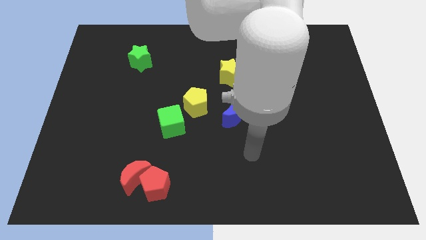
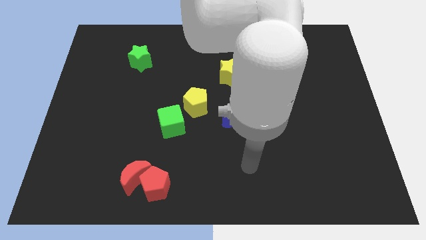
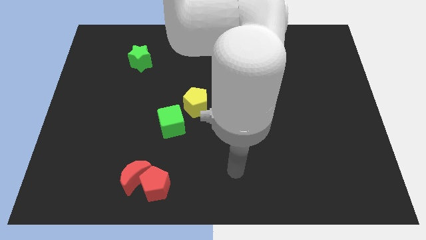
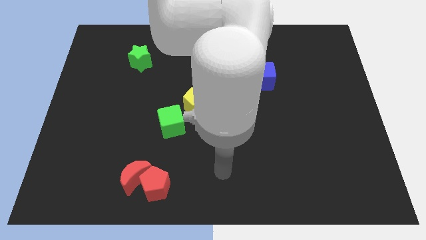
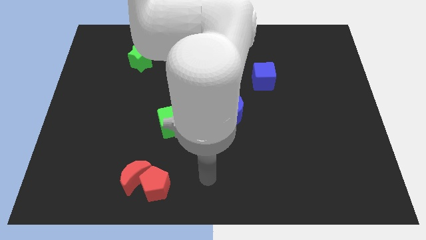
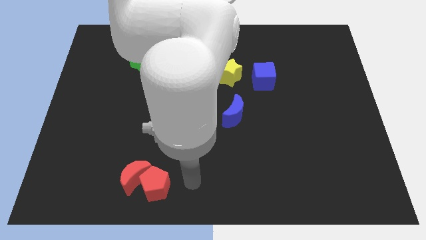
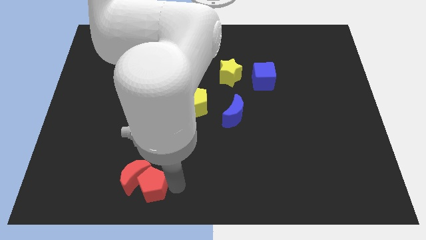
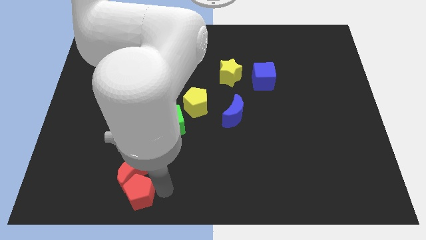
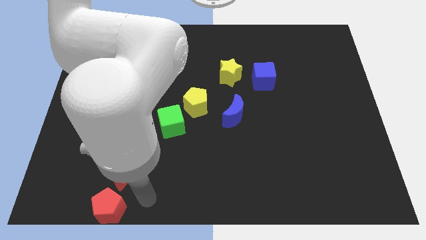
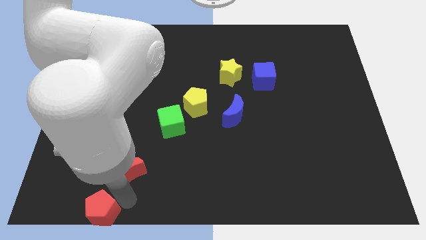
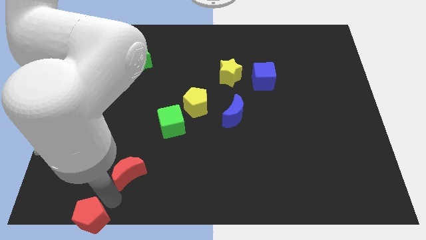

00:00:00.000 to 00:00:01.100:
pull the red moon apart from the red pentagon

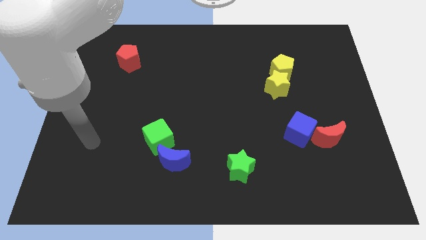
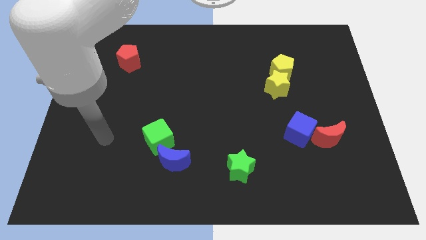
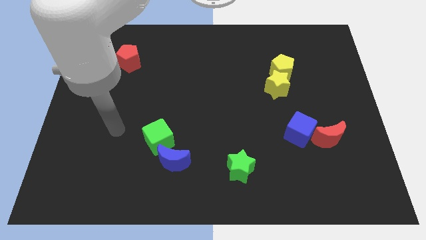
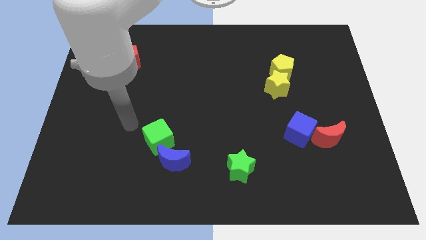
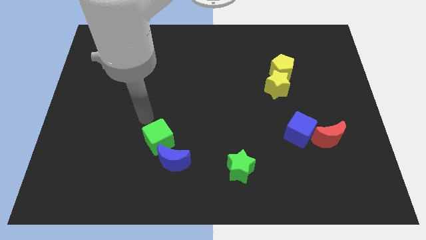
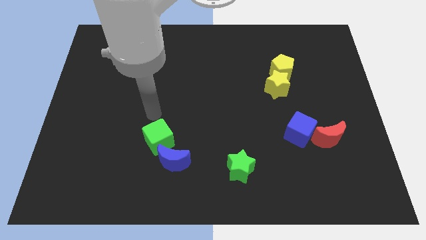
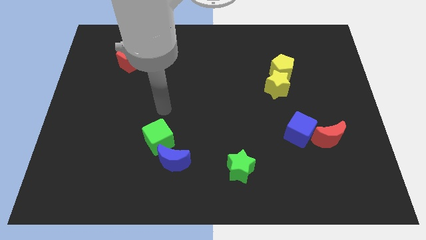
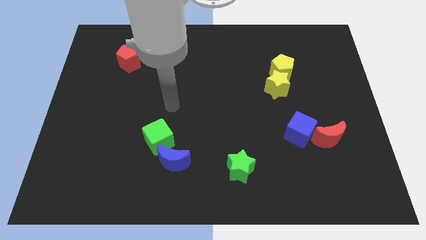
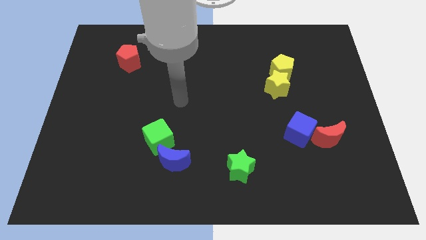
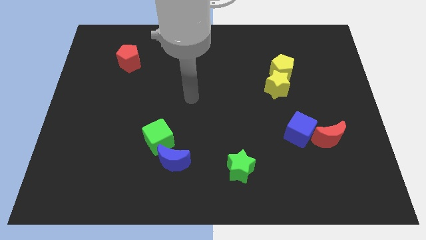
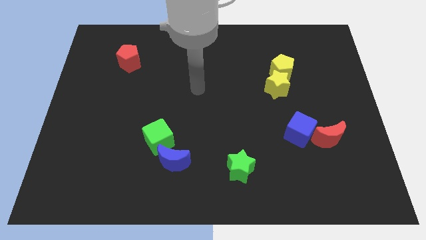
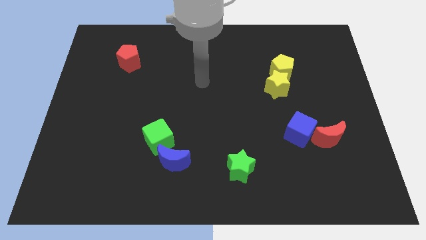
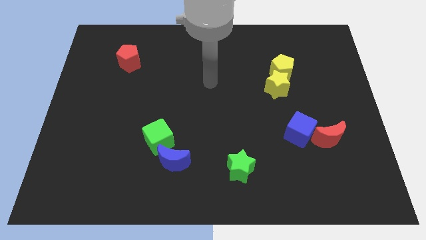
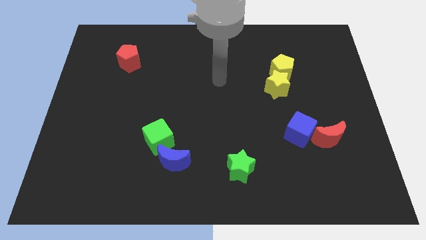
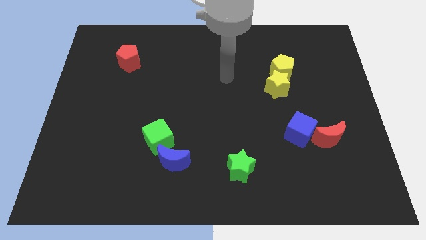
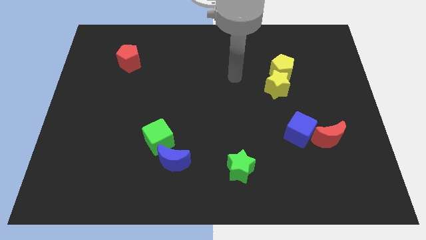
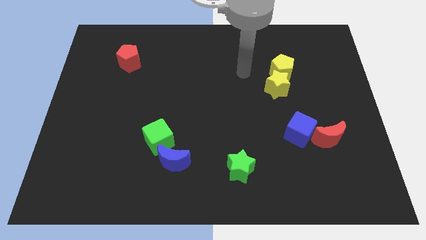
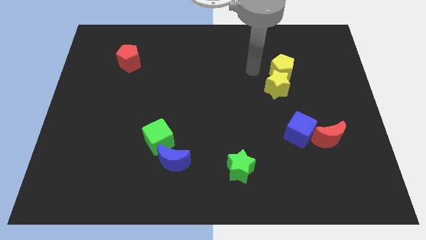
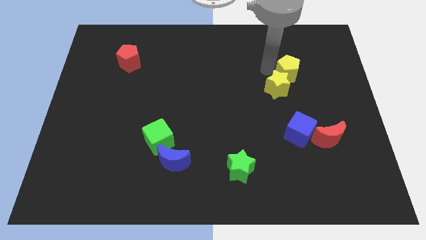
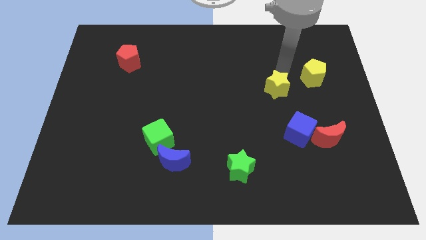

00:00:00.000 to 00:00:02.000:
pull the yellow star apart from the yellow pentagon

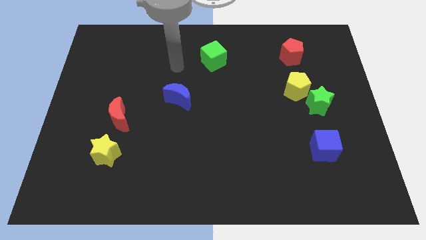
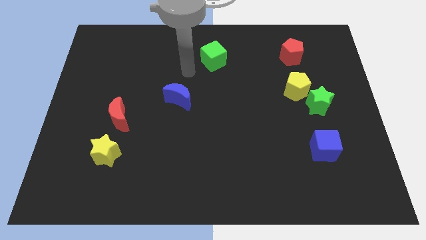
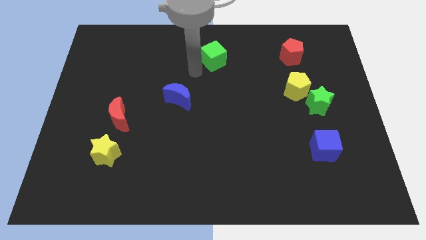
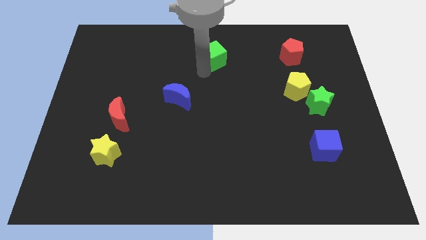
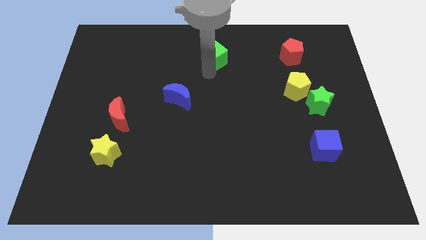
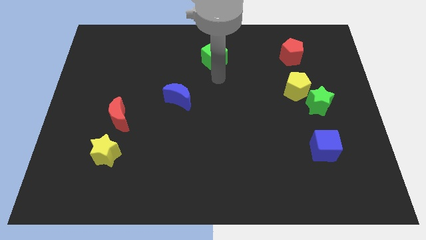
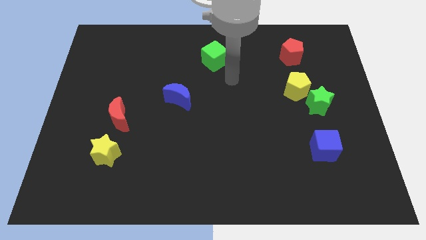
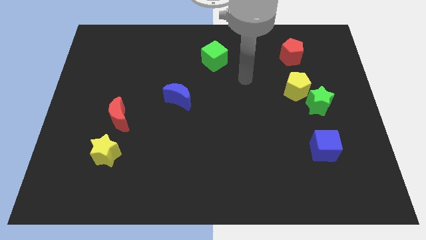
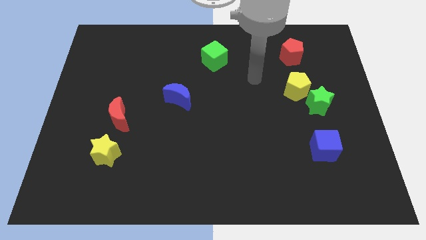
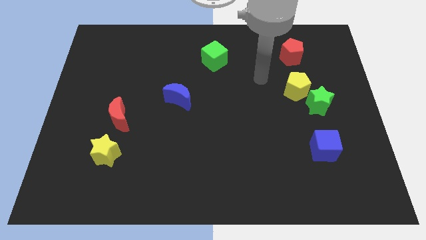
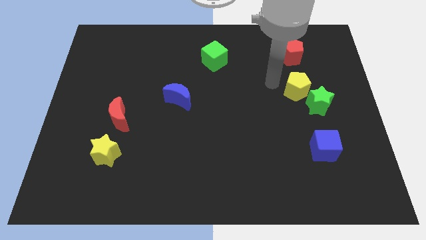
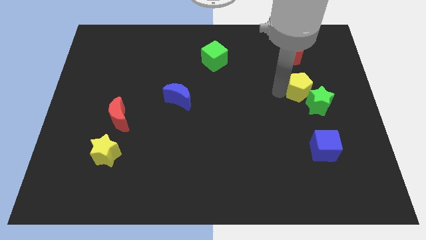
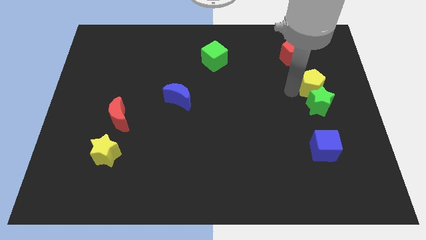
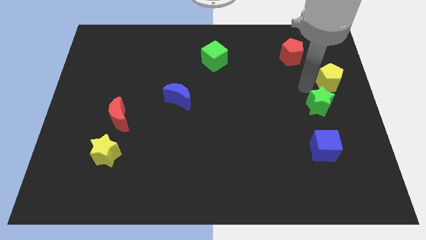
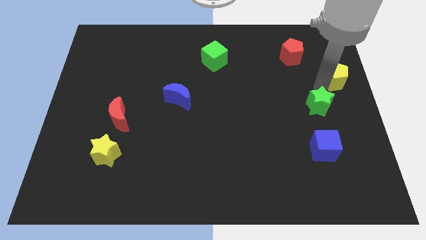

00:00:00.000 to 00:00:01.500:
separate the green star from the yellow pentagon

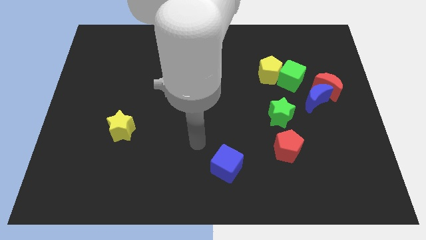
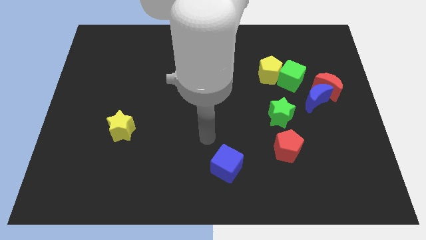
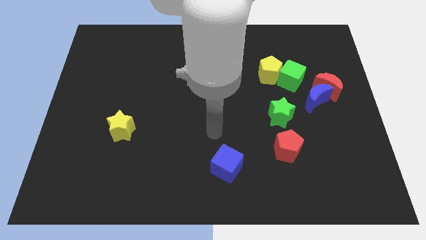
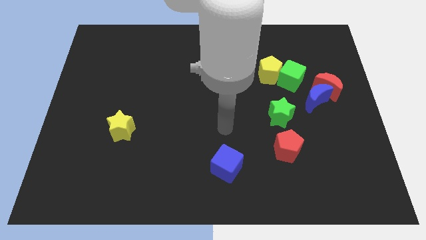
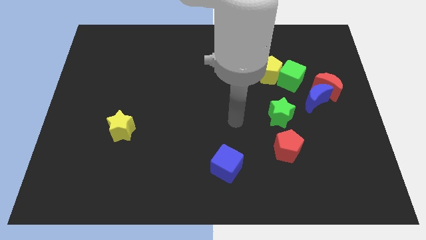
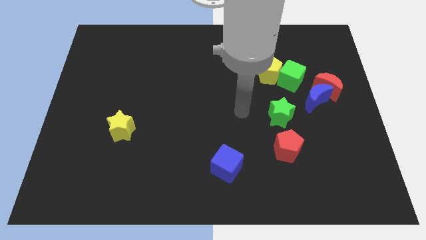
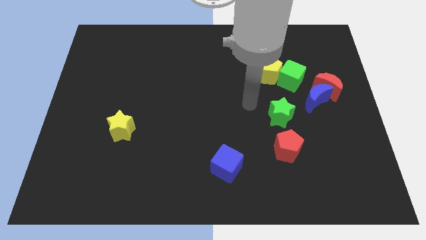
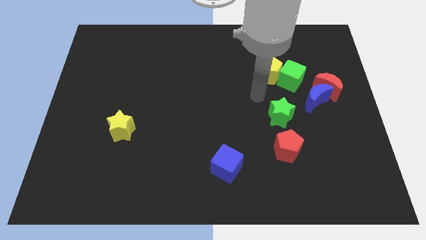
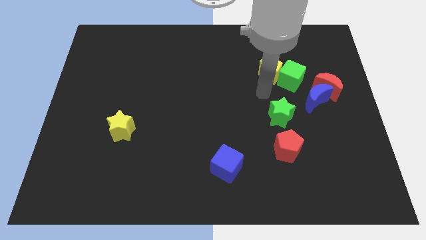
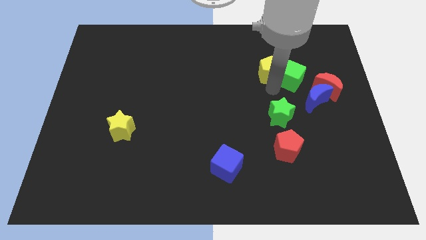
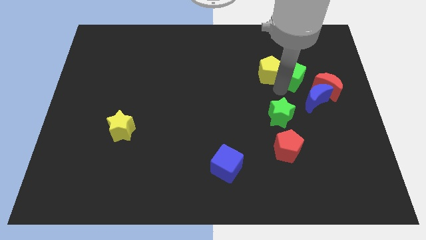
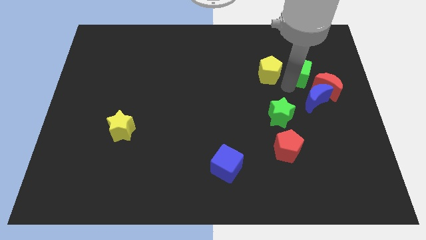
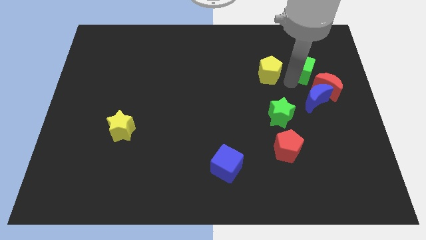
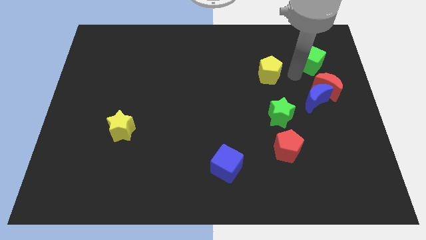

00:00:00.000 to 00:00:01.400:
pull the yellow pentagon apart from the green cube

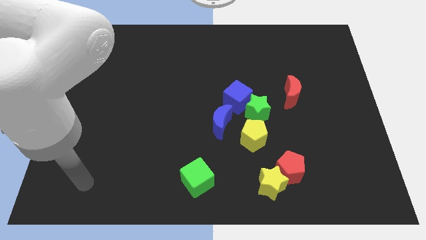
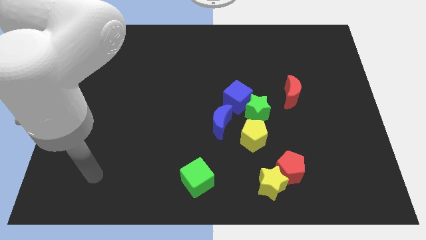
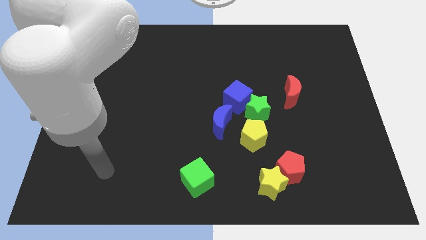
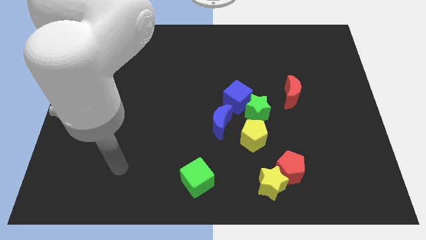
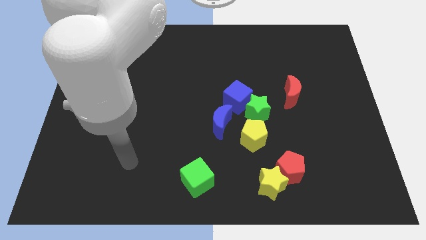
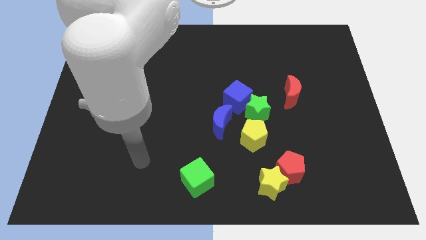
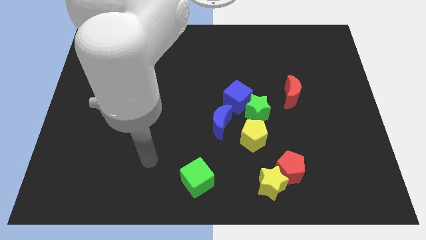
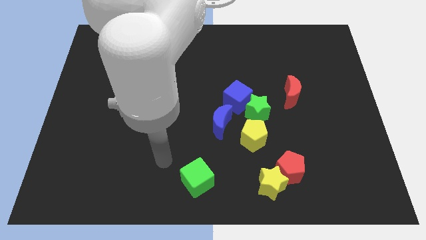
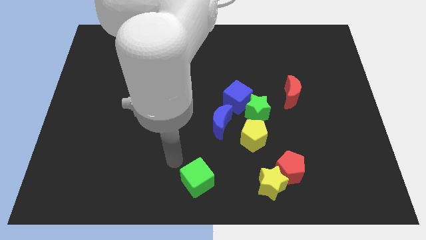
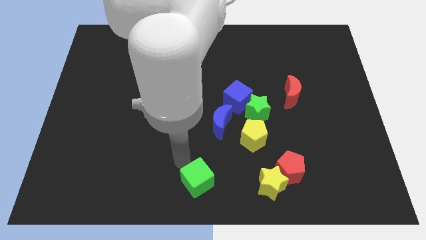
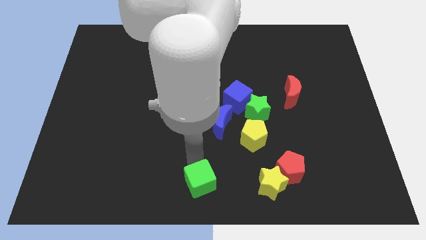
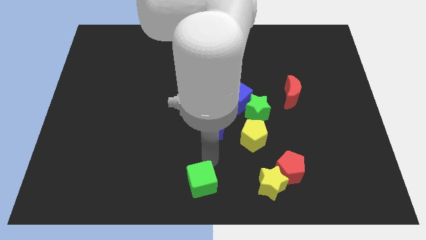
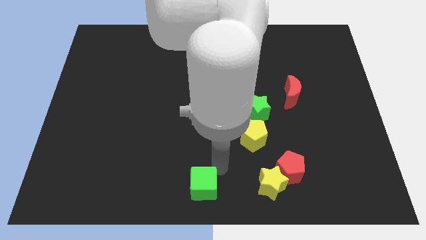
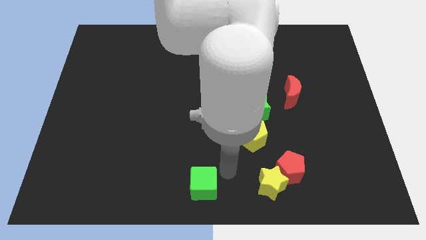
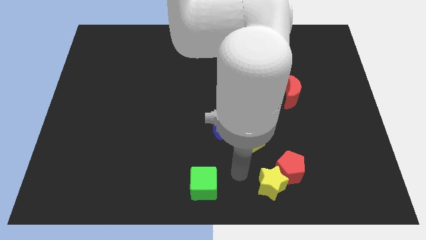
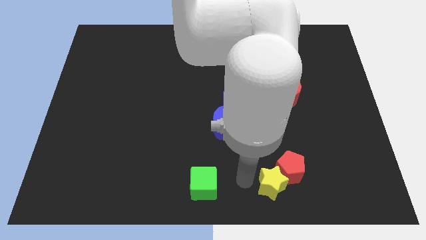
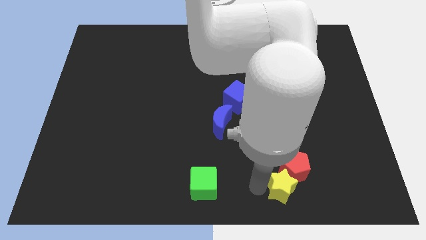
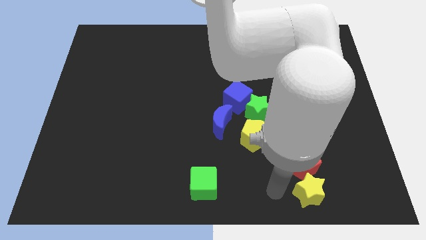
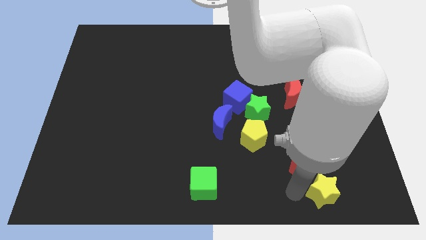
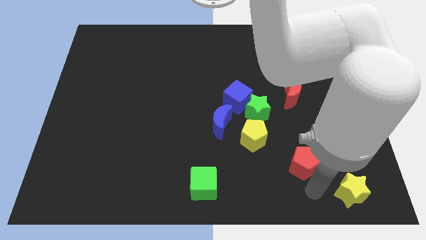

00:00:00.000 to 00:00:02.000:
move the red pentagon away from the yellow star

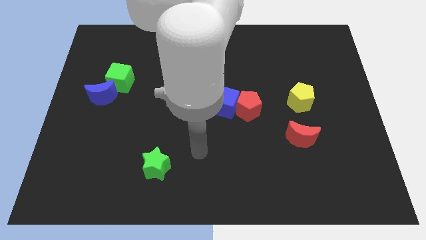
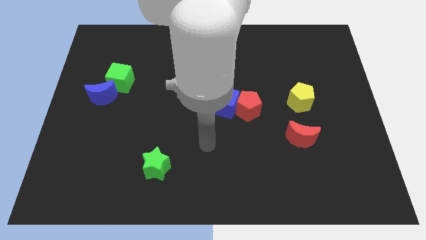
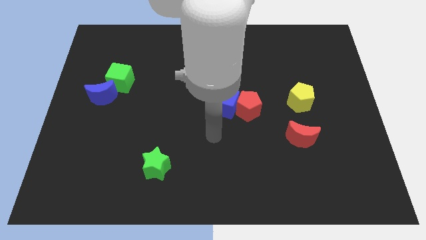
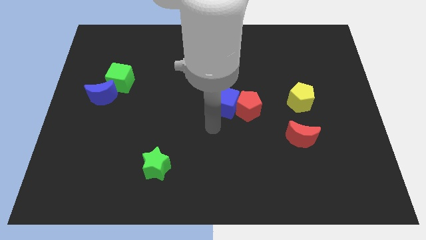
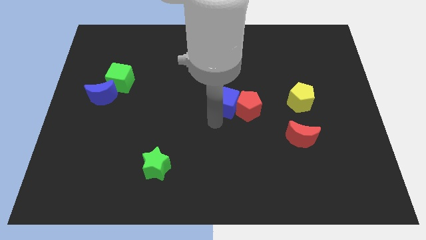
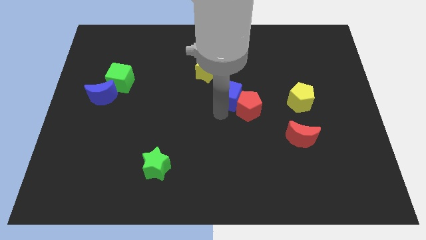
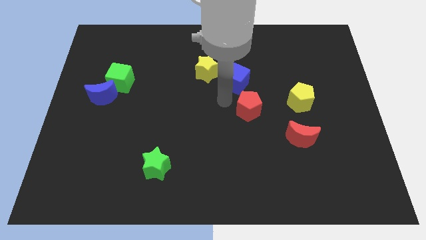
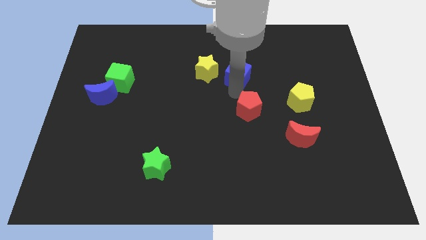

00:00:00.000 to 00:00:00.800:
pull the red pentagon apart from the blue cube

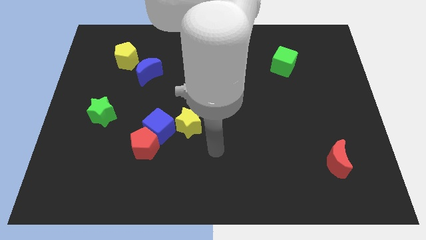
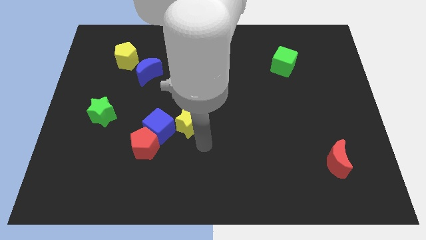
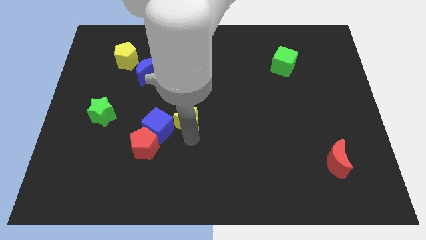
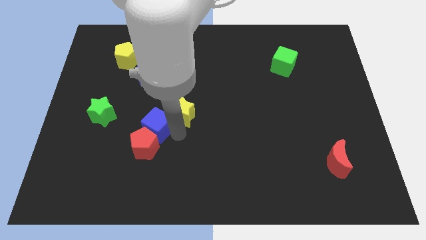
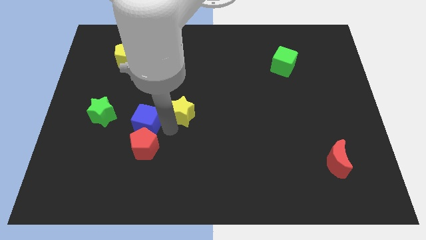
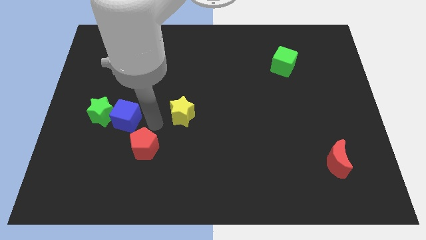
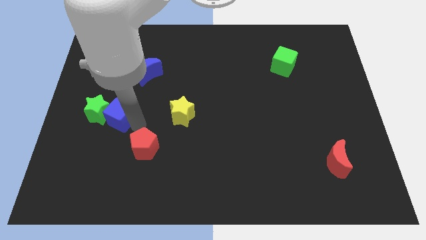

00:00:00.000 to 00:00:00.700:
move the red pentagon away from the blue cube
